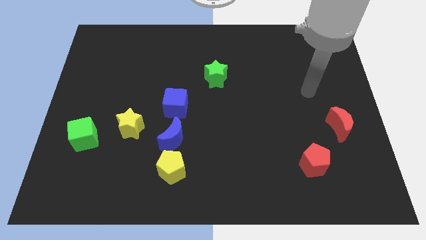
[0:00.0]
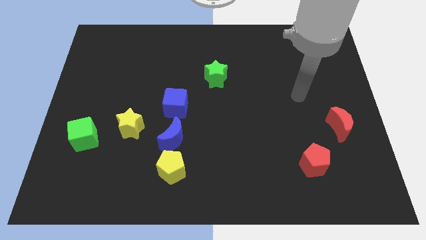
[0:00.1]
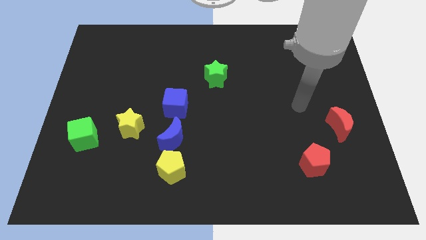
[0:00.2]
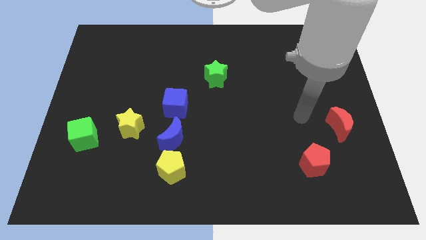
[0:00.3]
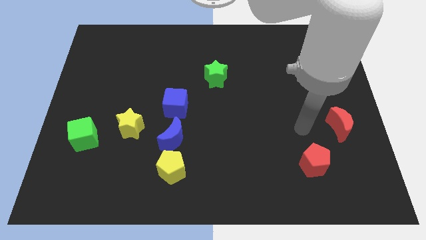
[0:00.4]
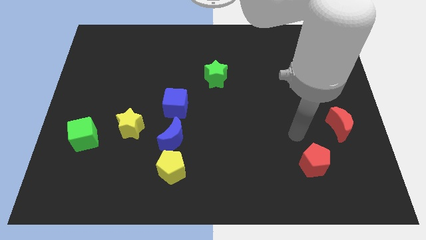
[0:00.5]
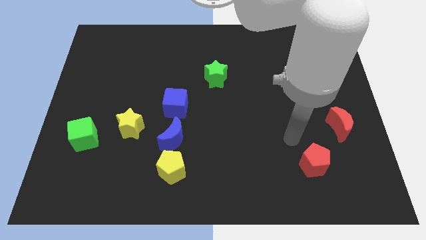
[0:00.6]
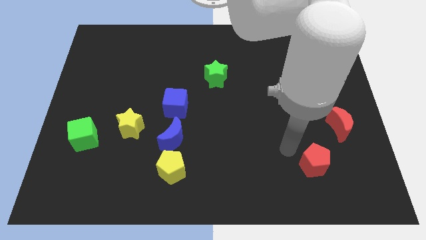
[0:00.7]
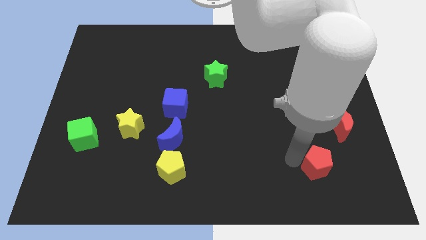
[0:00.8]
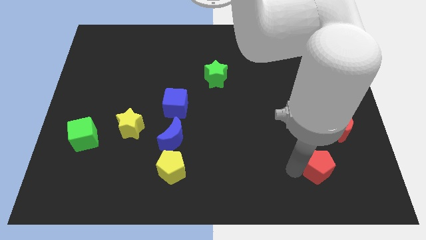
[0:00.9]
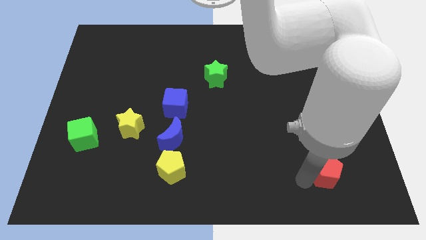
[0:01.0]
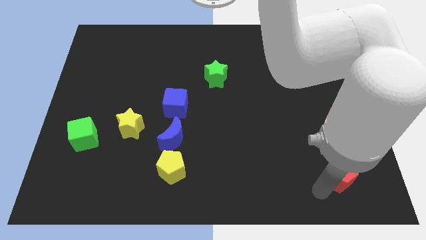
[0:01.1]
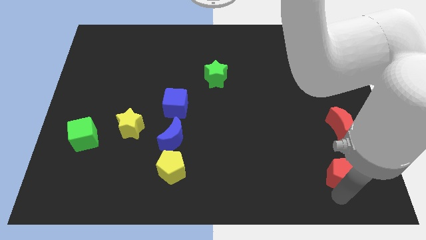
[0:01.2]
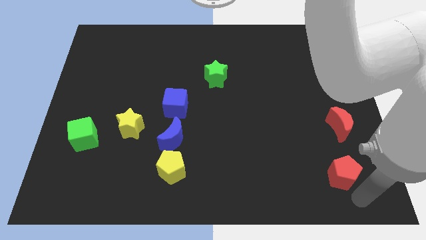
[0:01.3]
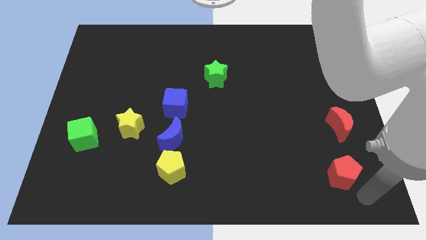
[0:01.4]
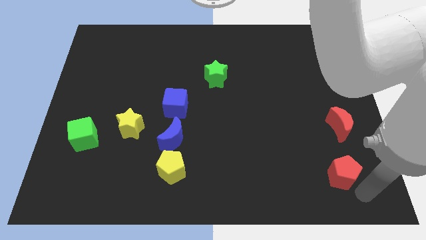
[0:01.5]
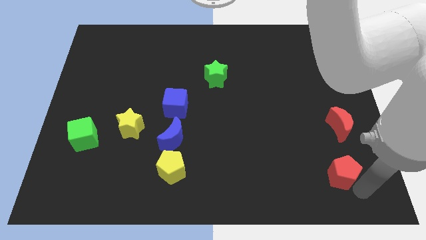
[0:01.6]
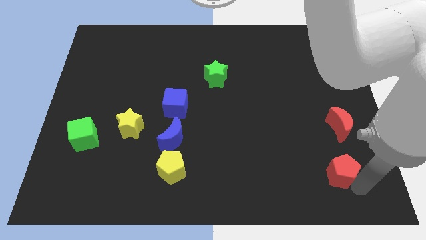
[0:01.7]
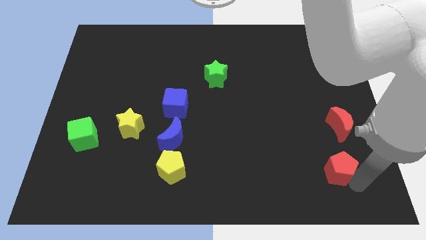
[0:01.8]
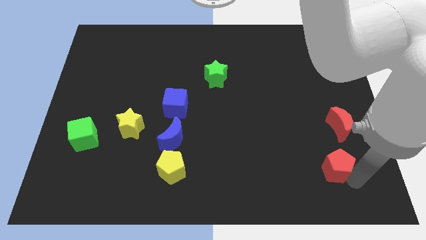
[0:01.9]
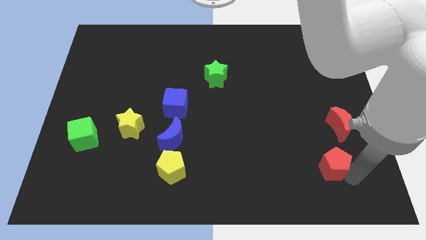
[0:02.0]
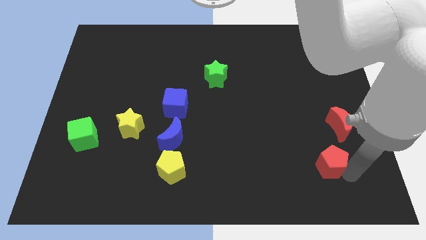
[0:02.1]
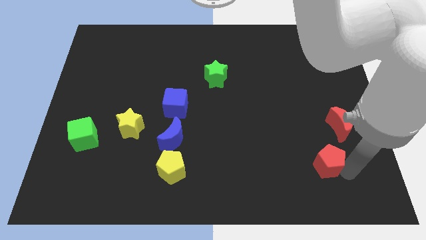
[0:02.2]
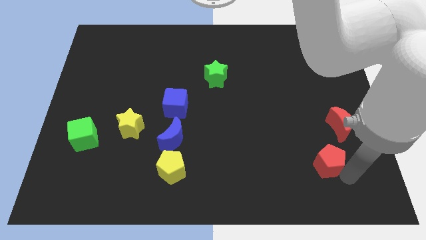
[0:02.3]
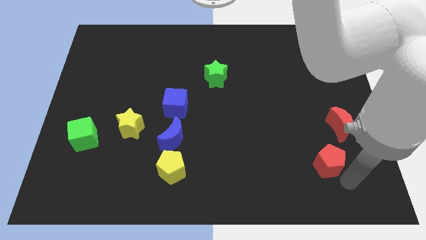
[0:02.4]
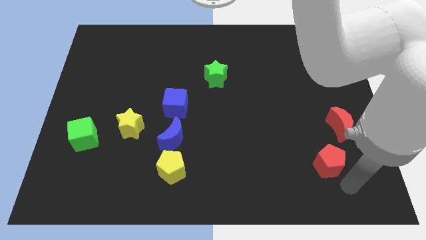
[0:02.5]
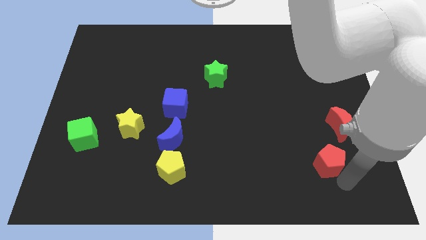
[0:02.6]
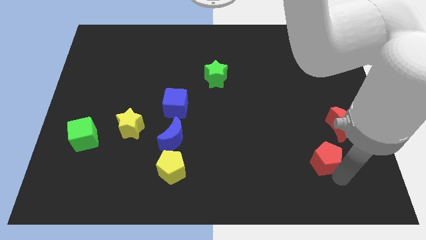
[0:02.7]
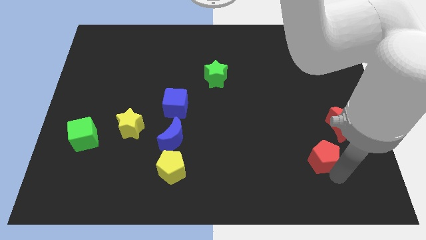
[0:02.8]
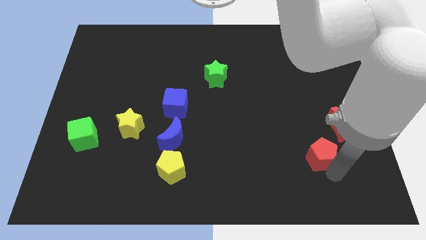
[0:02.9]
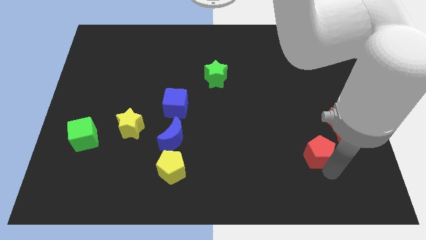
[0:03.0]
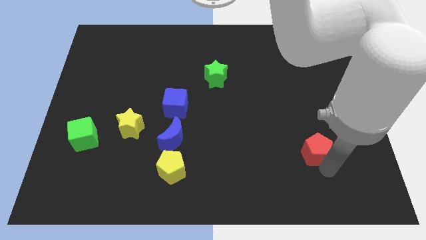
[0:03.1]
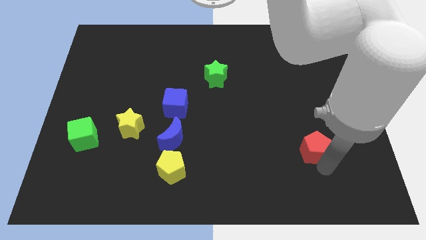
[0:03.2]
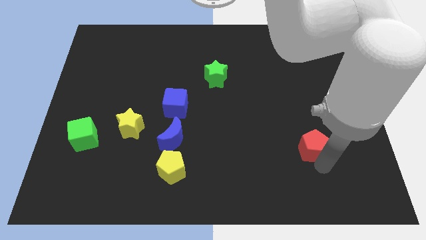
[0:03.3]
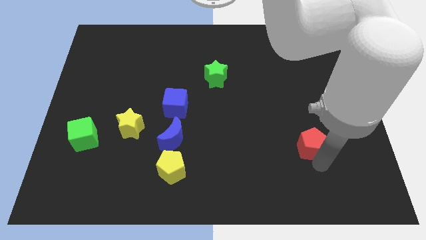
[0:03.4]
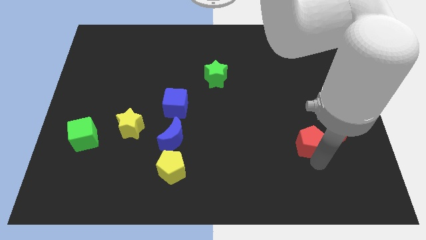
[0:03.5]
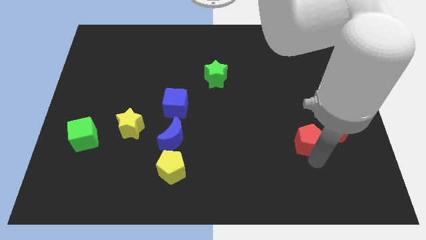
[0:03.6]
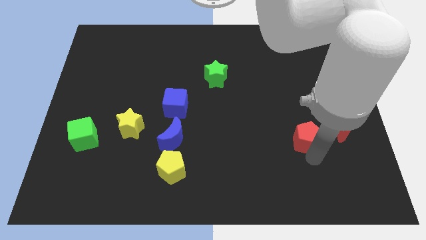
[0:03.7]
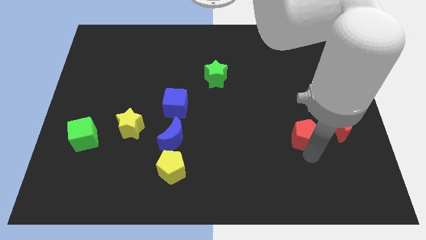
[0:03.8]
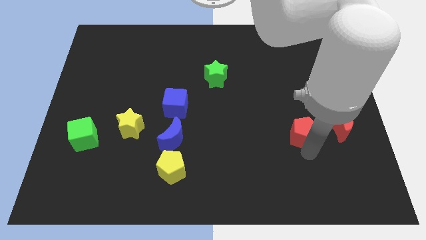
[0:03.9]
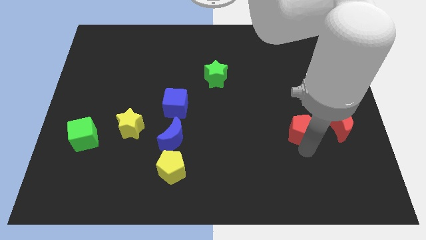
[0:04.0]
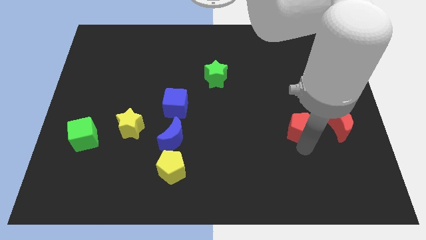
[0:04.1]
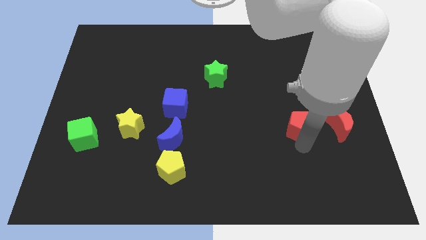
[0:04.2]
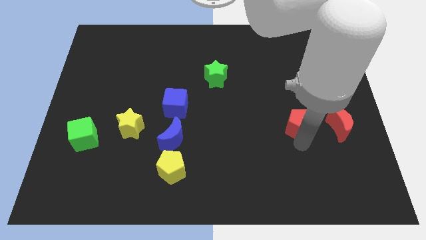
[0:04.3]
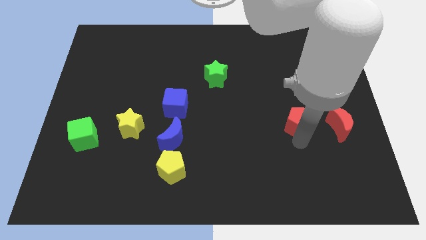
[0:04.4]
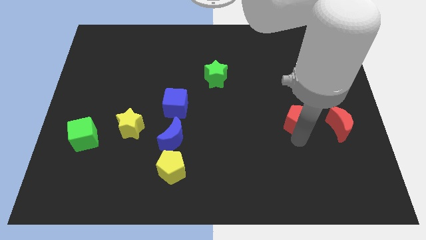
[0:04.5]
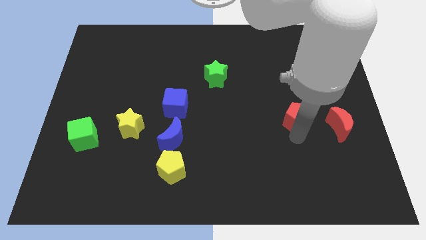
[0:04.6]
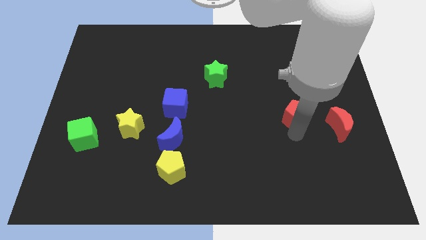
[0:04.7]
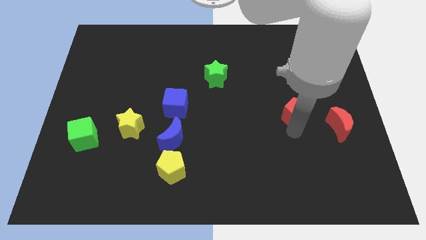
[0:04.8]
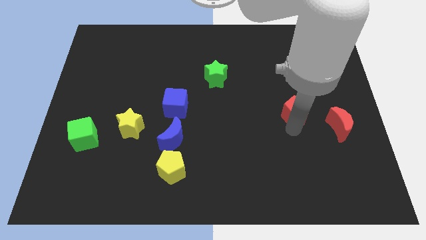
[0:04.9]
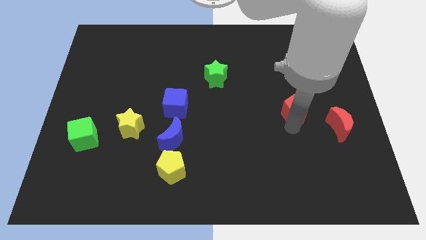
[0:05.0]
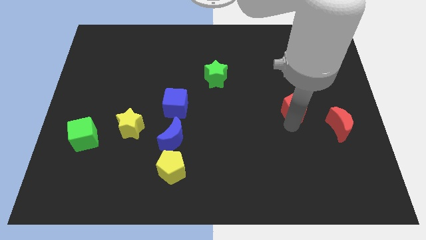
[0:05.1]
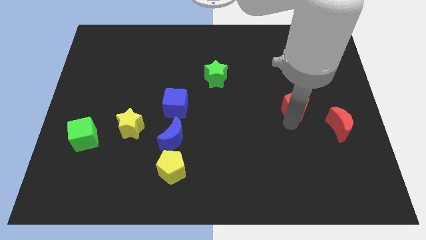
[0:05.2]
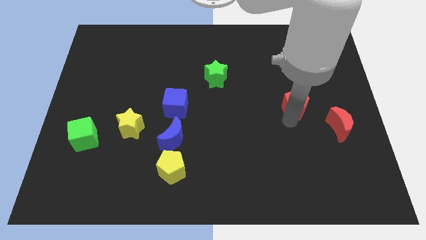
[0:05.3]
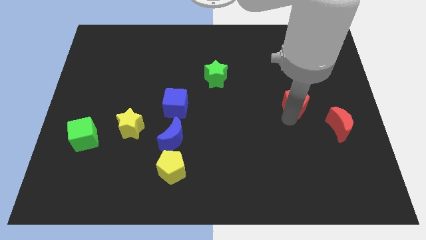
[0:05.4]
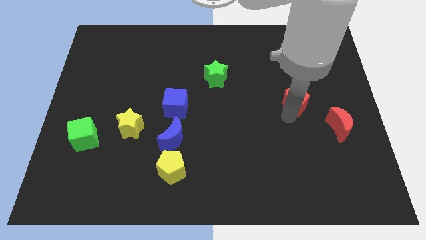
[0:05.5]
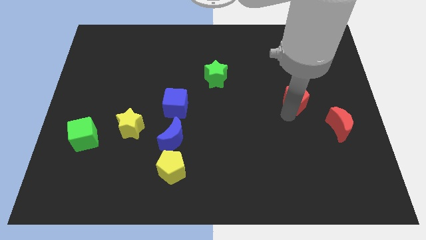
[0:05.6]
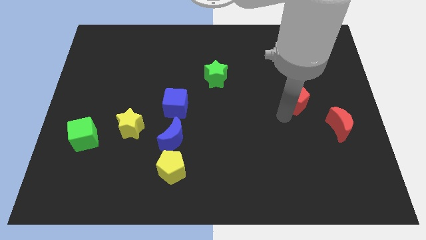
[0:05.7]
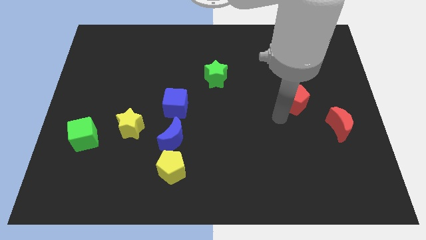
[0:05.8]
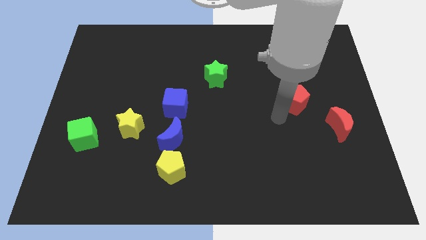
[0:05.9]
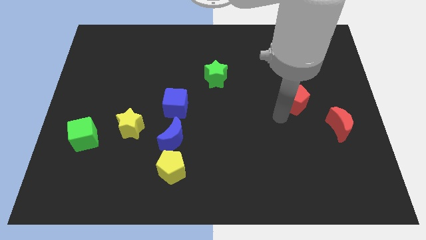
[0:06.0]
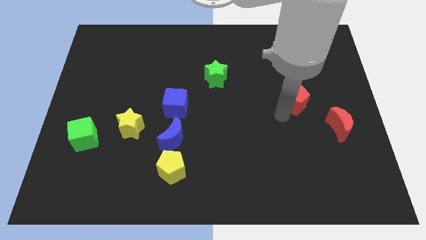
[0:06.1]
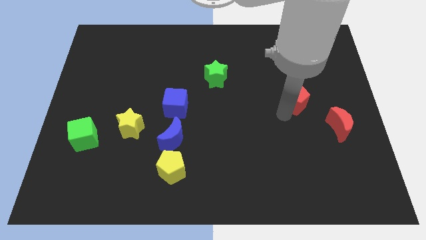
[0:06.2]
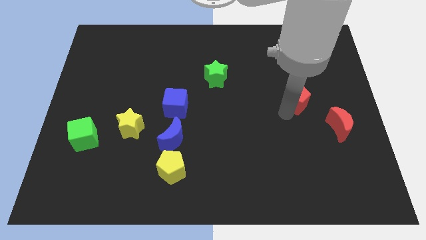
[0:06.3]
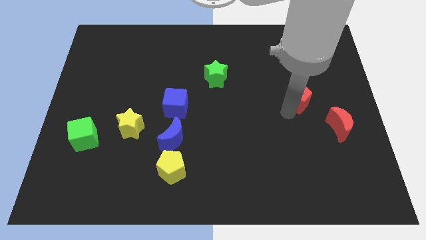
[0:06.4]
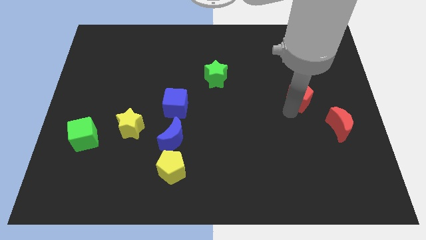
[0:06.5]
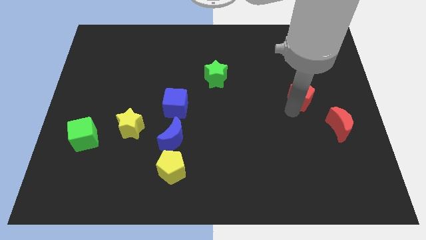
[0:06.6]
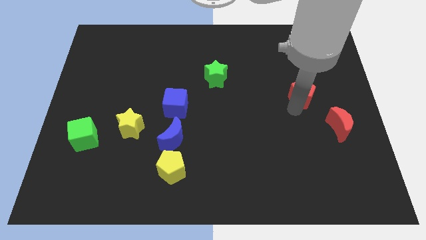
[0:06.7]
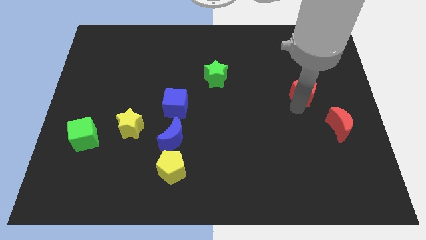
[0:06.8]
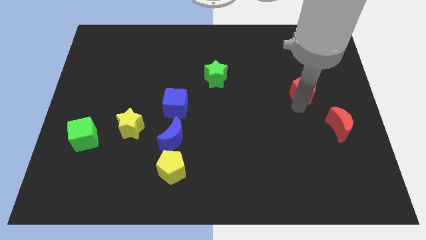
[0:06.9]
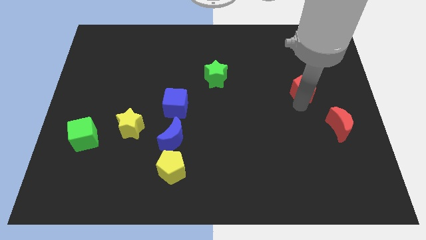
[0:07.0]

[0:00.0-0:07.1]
push the red pentagon upwards

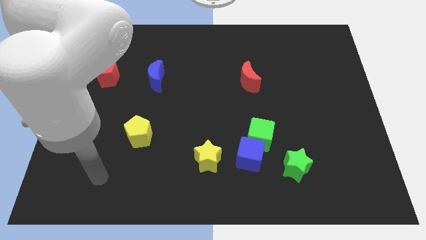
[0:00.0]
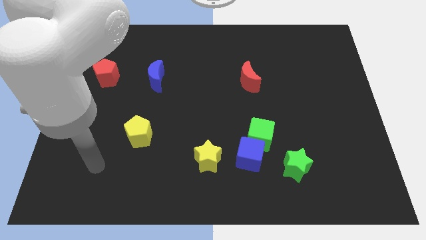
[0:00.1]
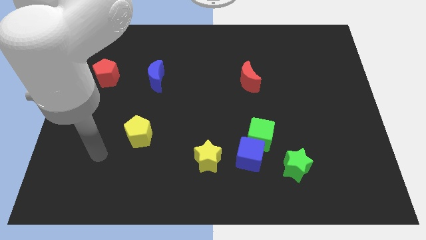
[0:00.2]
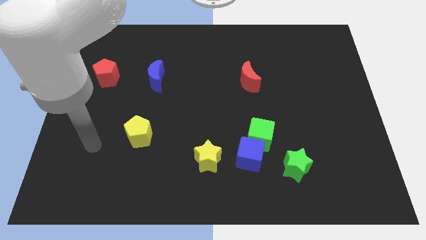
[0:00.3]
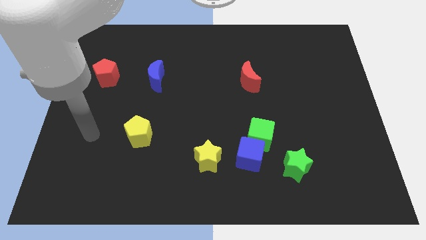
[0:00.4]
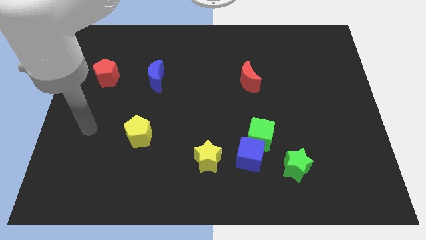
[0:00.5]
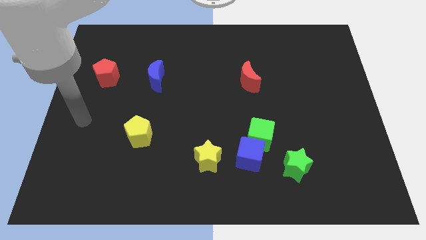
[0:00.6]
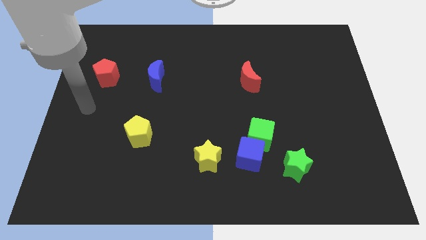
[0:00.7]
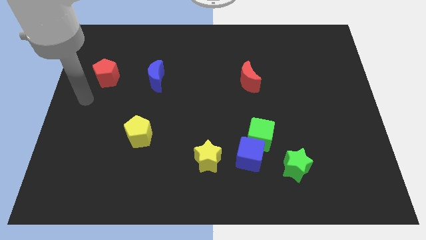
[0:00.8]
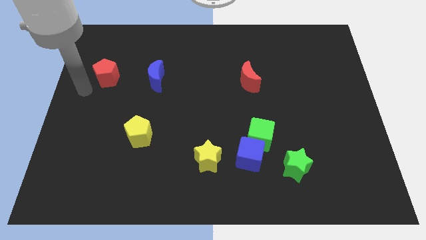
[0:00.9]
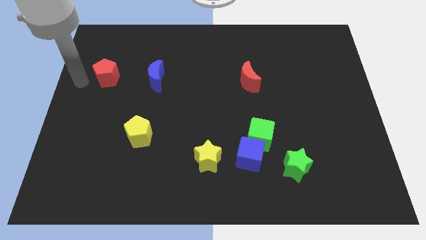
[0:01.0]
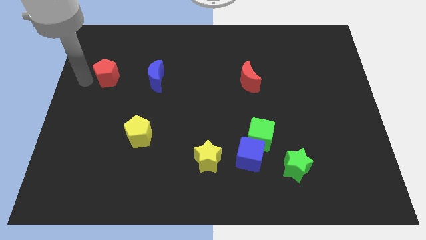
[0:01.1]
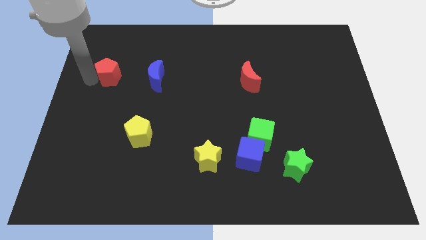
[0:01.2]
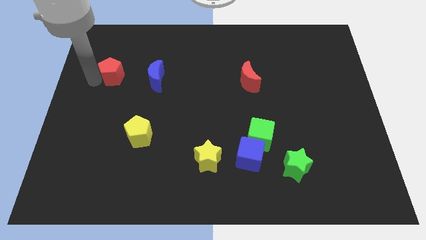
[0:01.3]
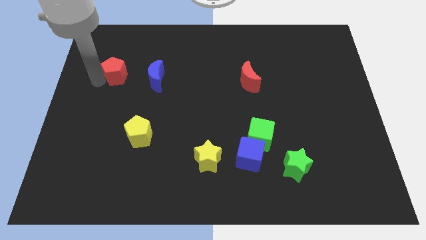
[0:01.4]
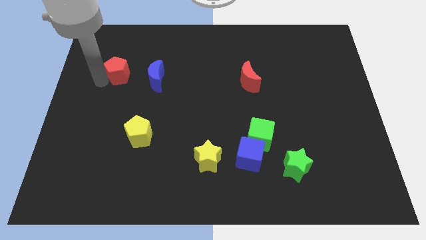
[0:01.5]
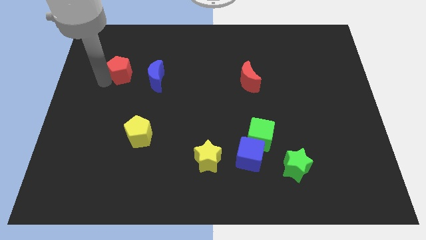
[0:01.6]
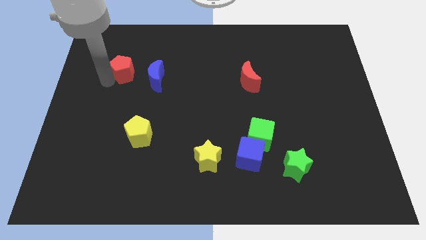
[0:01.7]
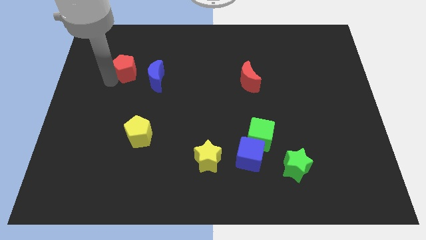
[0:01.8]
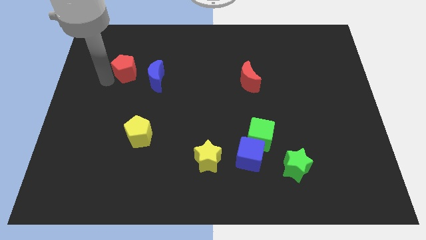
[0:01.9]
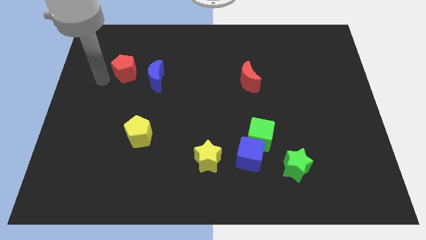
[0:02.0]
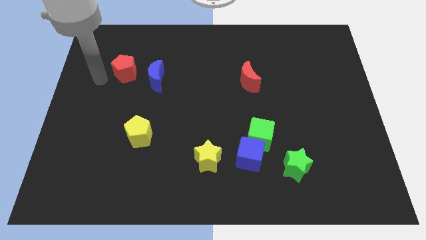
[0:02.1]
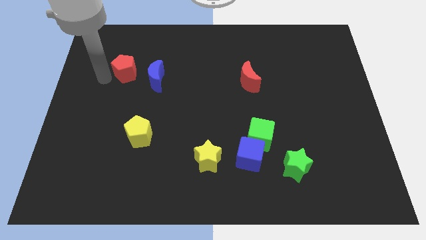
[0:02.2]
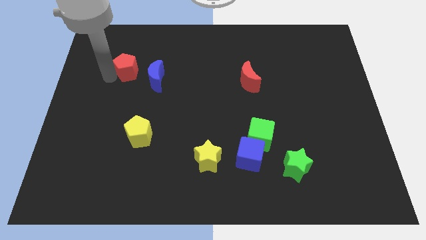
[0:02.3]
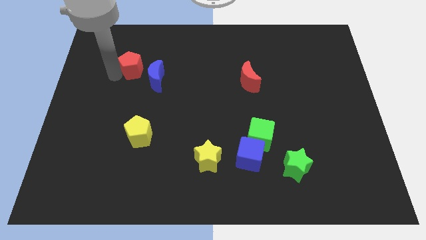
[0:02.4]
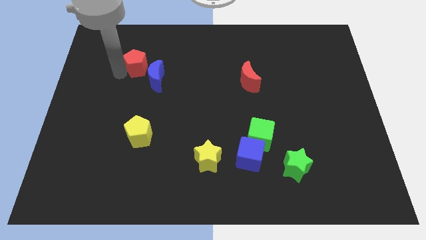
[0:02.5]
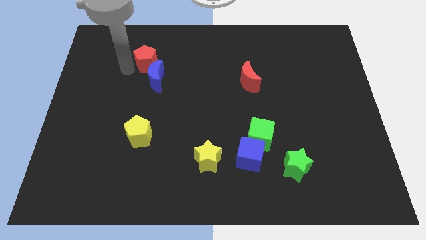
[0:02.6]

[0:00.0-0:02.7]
slide the red pentagon right a little bit
